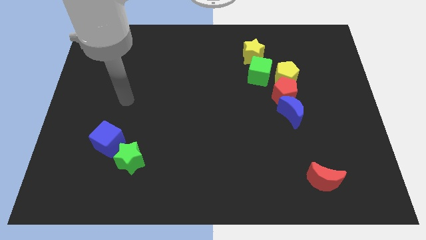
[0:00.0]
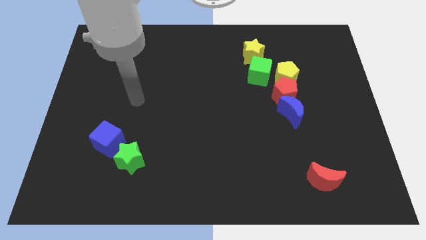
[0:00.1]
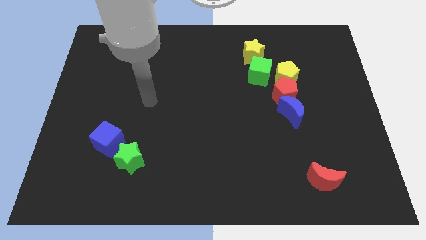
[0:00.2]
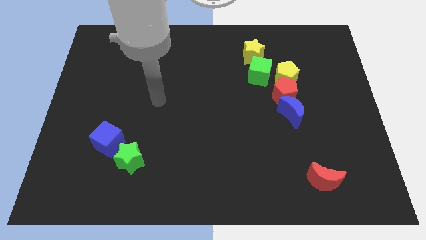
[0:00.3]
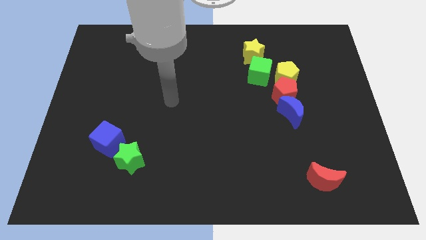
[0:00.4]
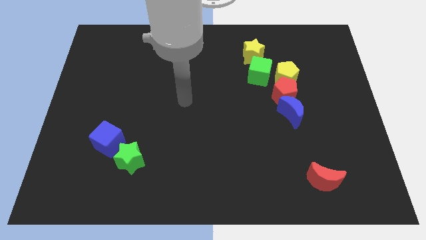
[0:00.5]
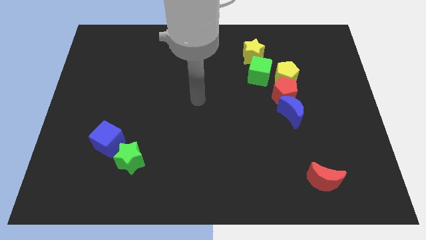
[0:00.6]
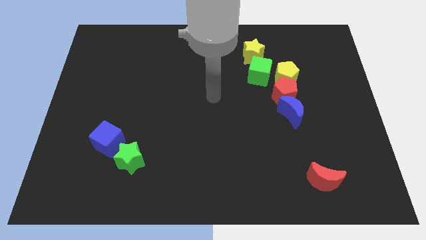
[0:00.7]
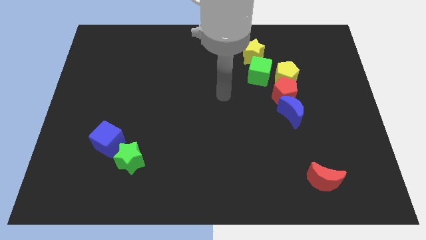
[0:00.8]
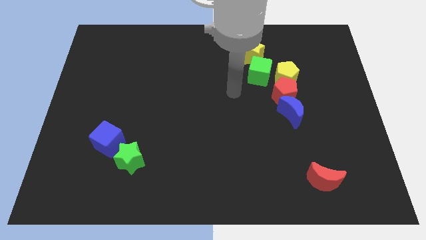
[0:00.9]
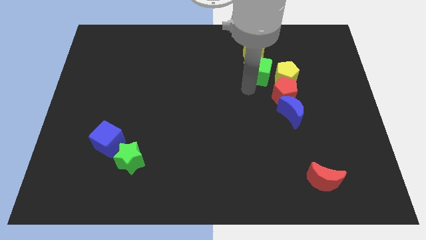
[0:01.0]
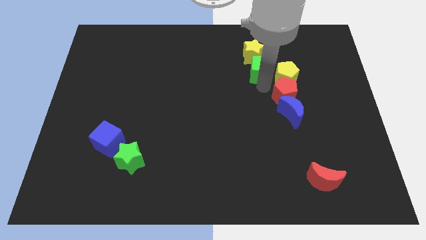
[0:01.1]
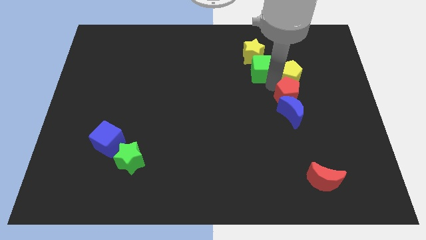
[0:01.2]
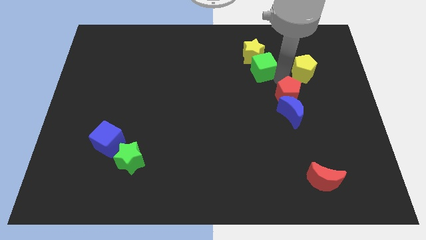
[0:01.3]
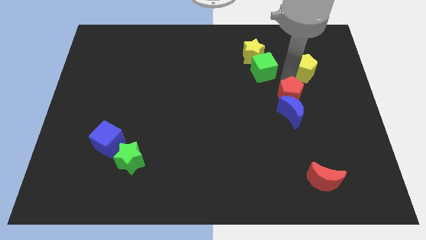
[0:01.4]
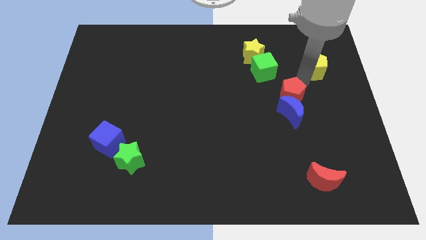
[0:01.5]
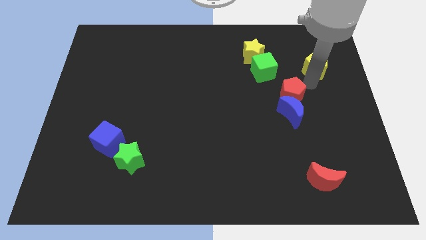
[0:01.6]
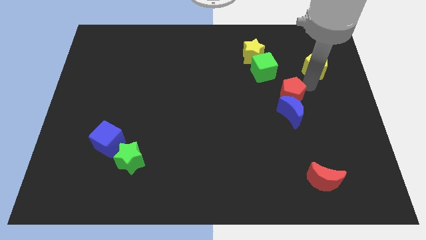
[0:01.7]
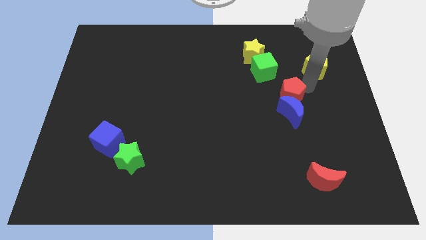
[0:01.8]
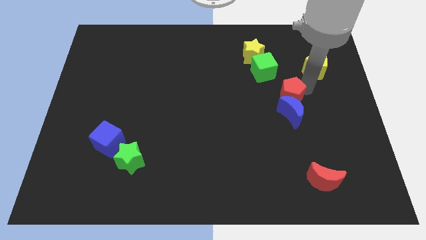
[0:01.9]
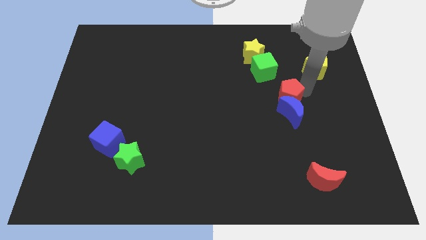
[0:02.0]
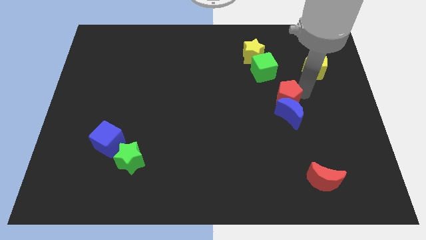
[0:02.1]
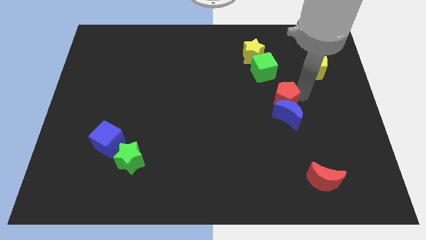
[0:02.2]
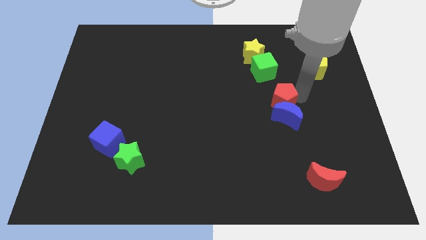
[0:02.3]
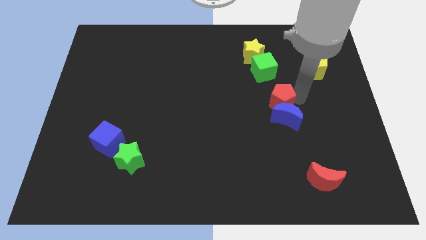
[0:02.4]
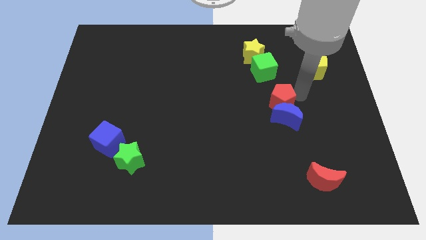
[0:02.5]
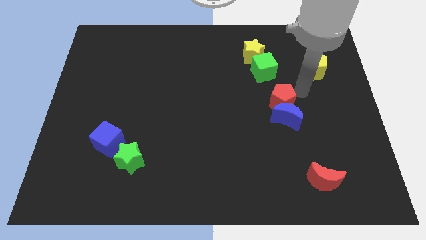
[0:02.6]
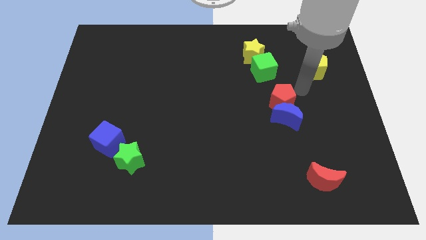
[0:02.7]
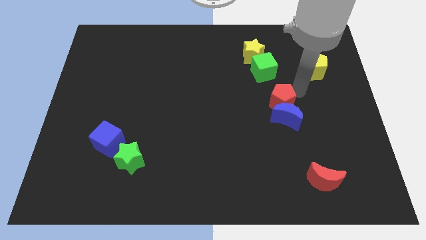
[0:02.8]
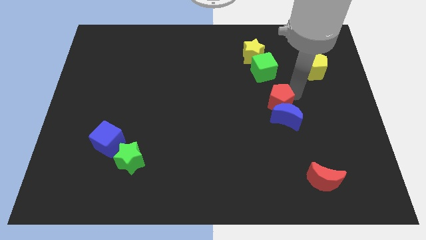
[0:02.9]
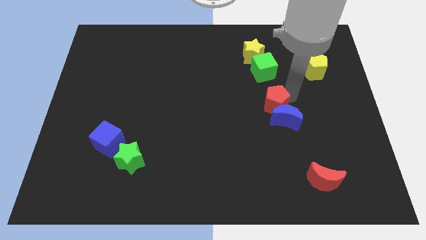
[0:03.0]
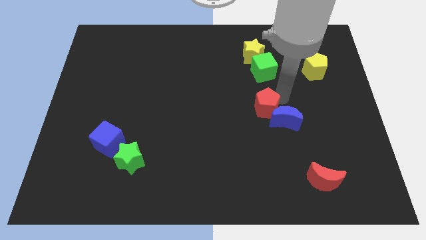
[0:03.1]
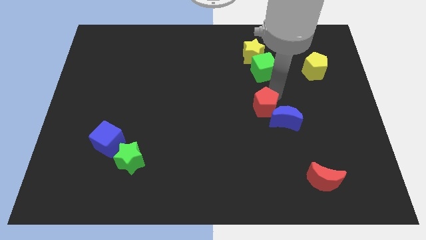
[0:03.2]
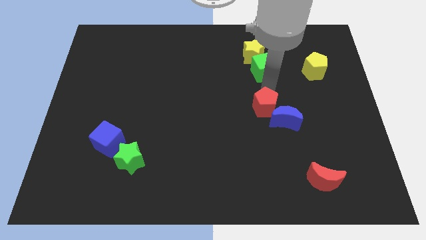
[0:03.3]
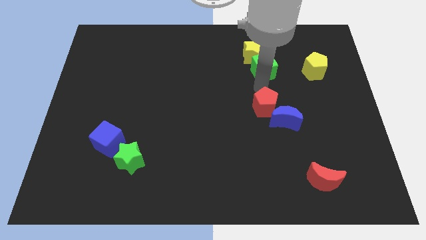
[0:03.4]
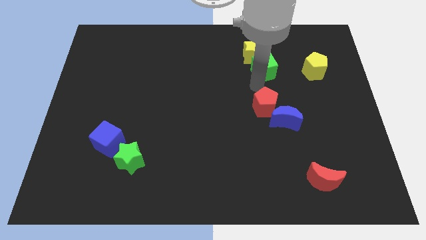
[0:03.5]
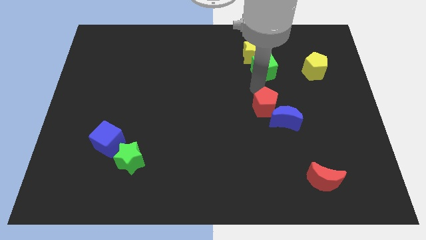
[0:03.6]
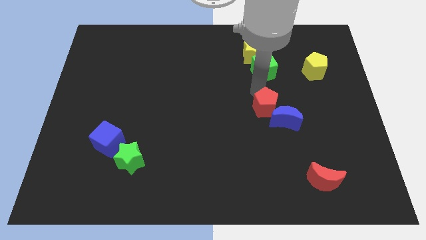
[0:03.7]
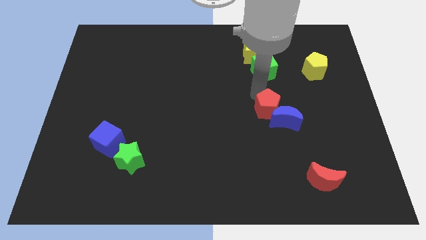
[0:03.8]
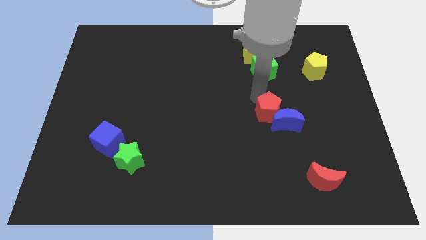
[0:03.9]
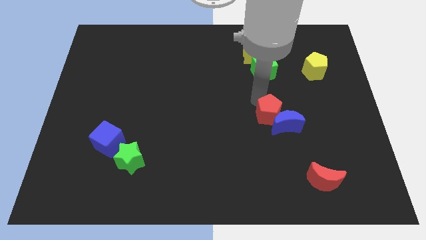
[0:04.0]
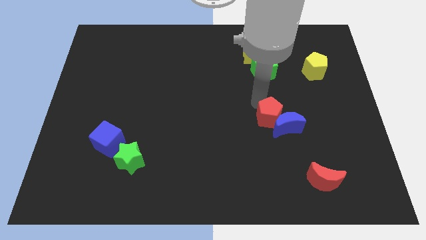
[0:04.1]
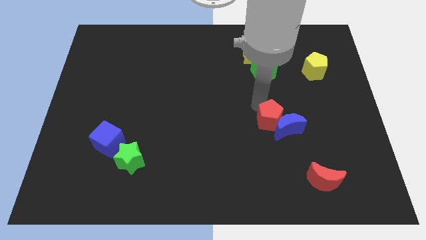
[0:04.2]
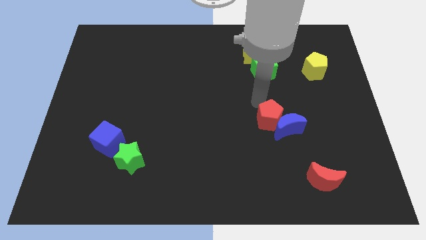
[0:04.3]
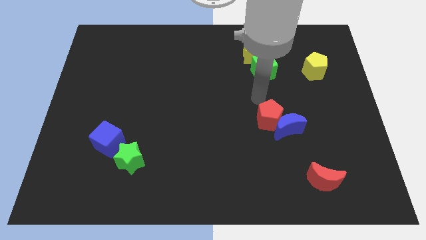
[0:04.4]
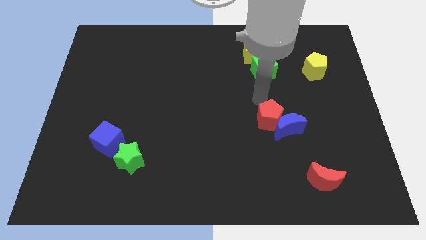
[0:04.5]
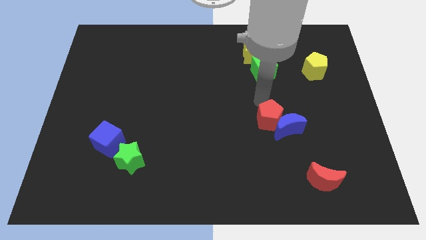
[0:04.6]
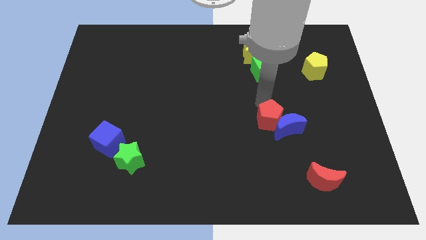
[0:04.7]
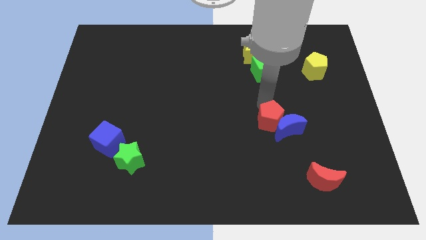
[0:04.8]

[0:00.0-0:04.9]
move the red pentagon down slightly

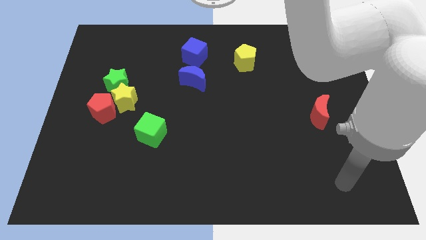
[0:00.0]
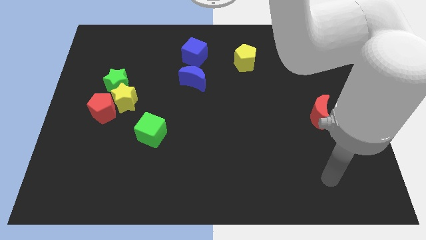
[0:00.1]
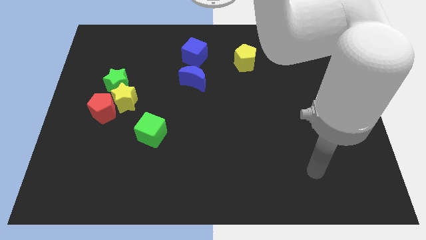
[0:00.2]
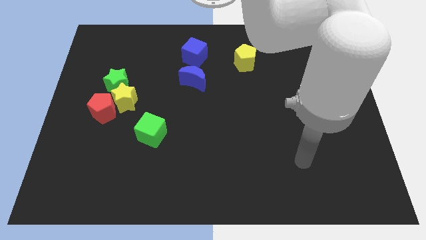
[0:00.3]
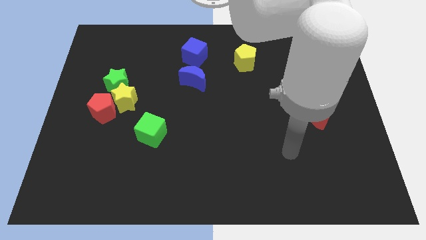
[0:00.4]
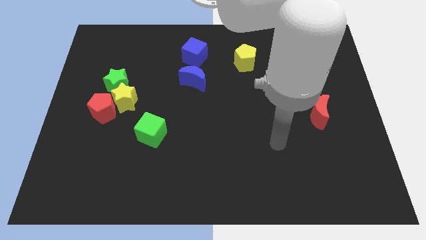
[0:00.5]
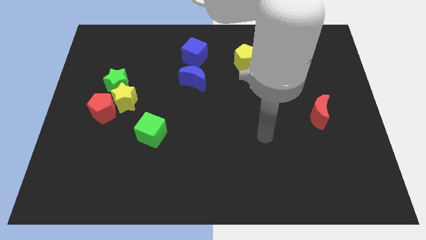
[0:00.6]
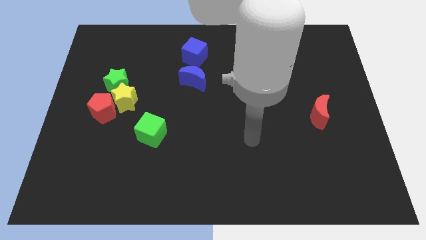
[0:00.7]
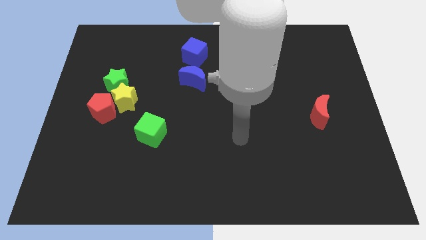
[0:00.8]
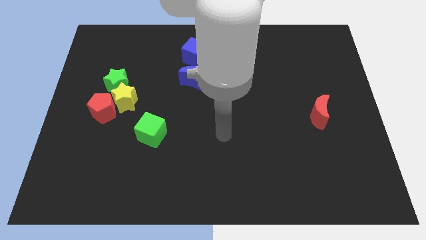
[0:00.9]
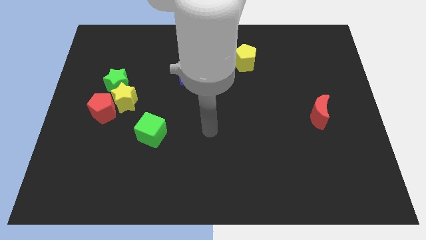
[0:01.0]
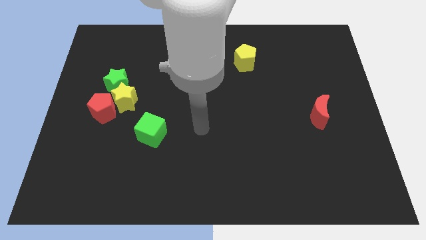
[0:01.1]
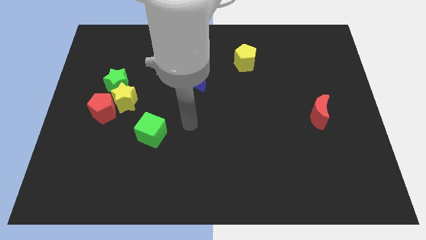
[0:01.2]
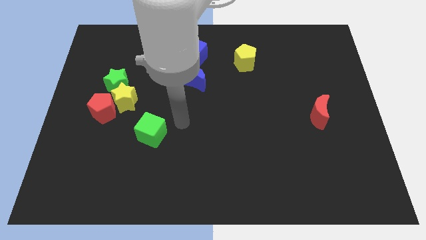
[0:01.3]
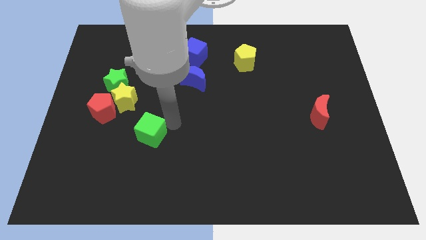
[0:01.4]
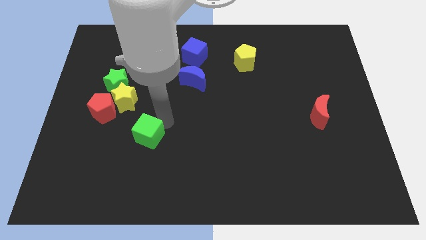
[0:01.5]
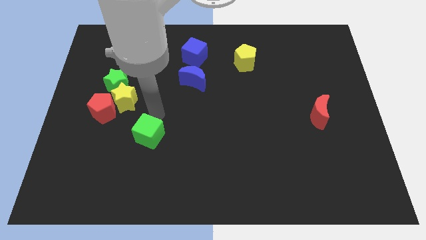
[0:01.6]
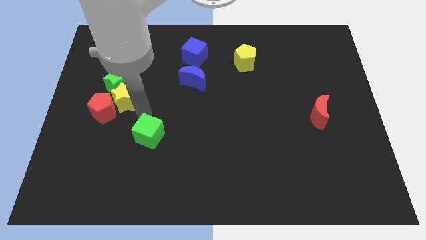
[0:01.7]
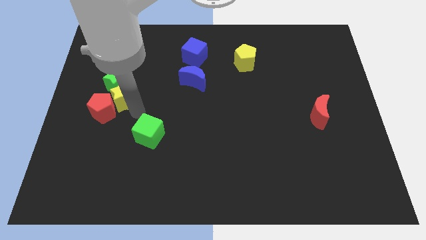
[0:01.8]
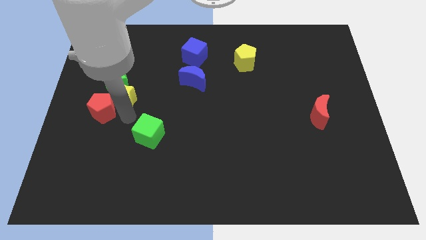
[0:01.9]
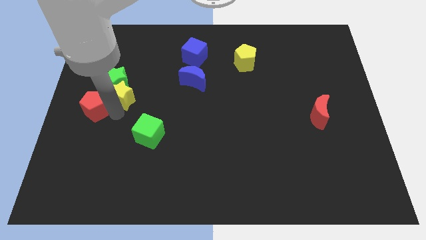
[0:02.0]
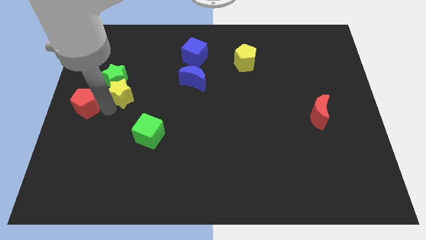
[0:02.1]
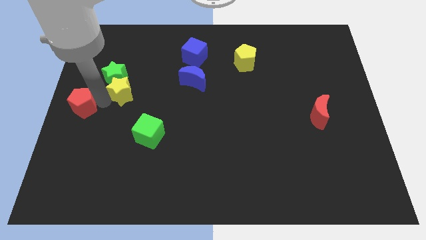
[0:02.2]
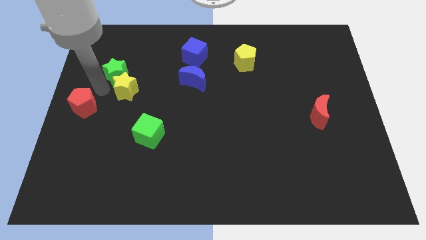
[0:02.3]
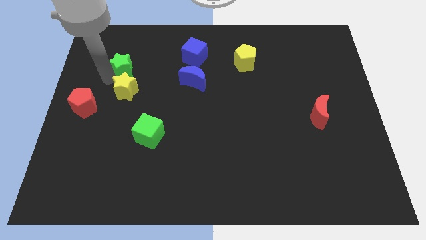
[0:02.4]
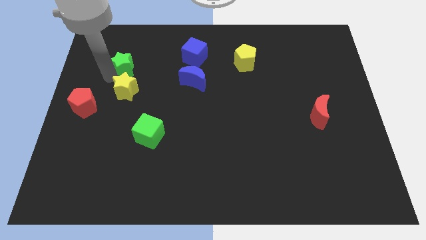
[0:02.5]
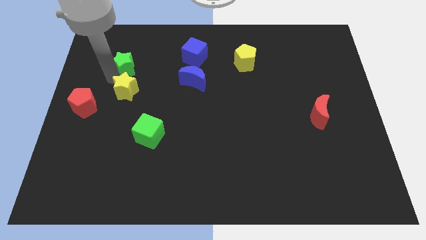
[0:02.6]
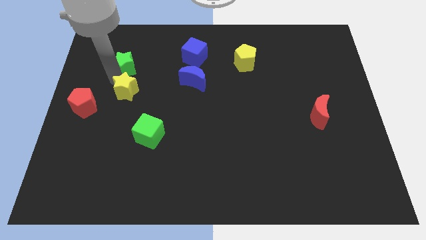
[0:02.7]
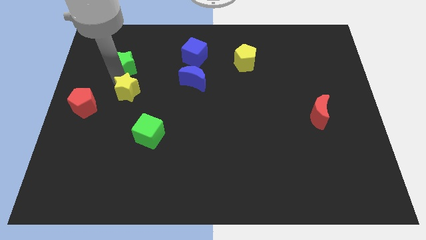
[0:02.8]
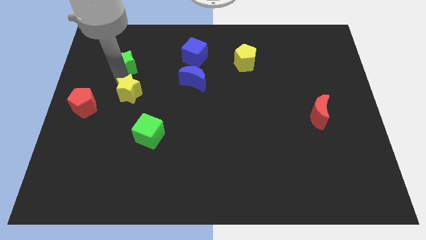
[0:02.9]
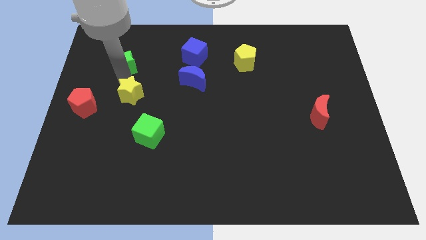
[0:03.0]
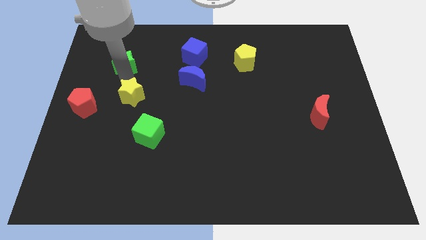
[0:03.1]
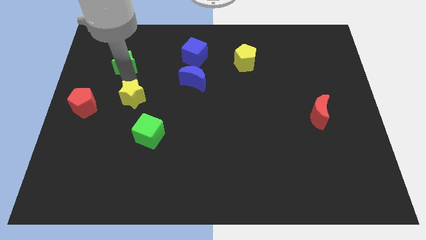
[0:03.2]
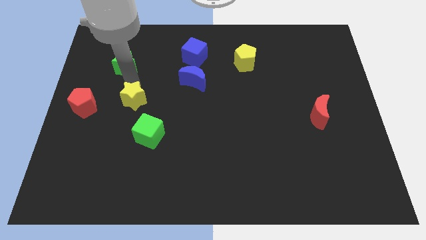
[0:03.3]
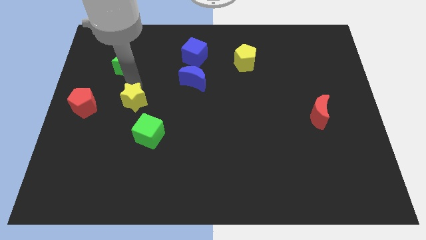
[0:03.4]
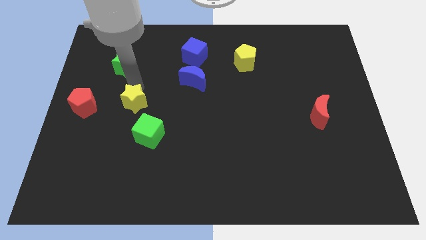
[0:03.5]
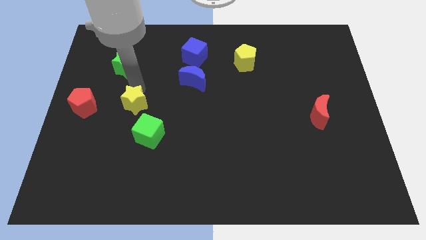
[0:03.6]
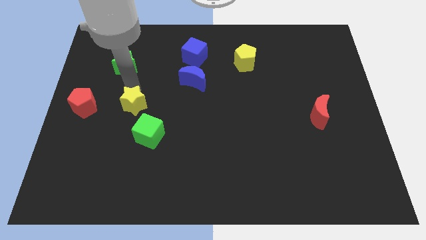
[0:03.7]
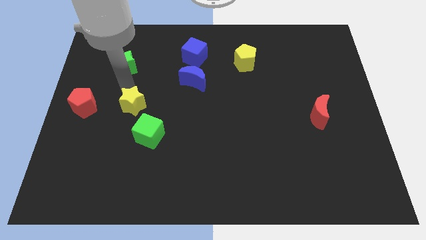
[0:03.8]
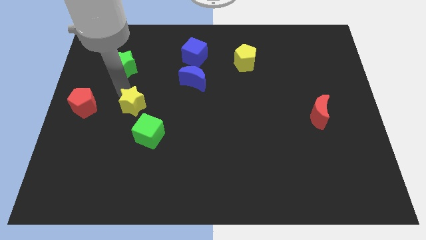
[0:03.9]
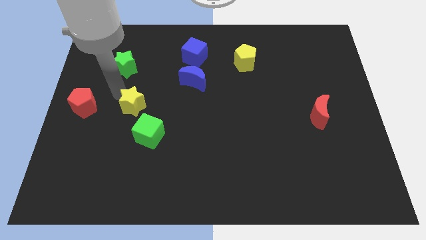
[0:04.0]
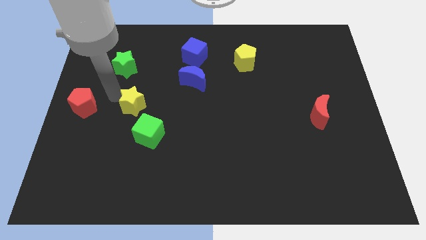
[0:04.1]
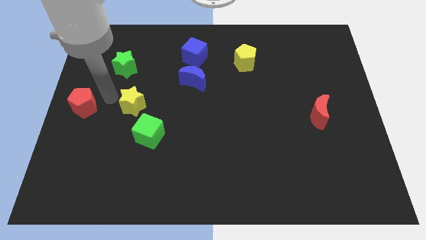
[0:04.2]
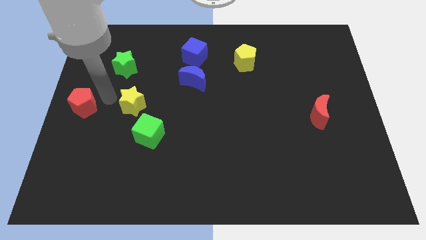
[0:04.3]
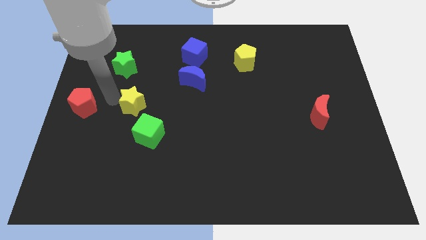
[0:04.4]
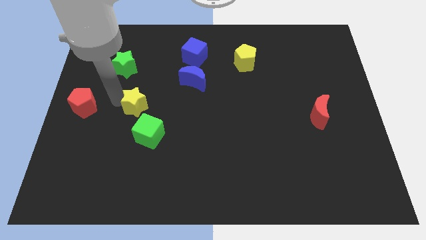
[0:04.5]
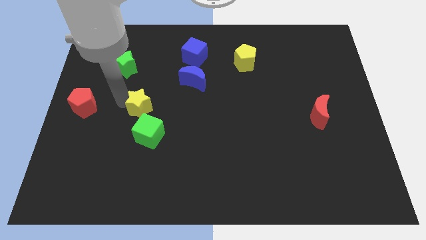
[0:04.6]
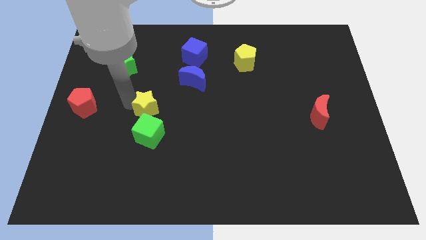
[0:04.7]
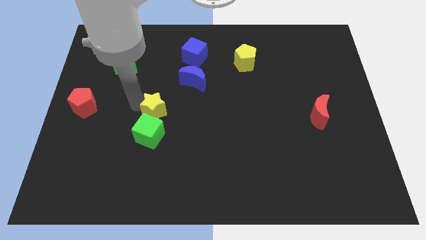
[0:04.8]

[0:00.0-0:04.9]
move the yellow star downwards and then right slightly
